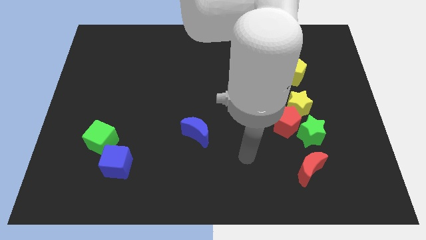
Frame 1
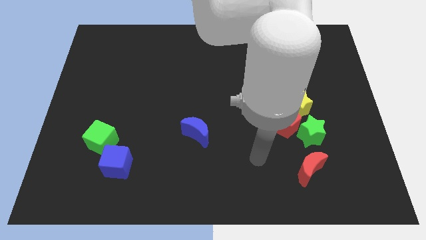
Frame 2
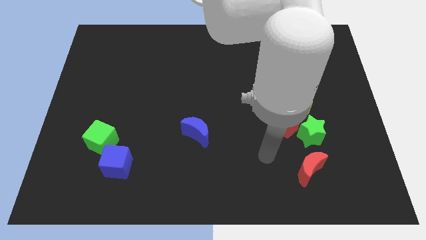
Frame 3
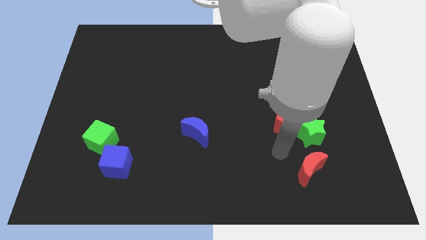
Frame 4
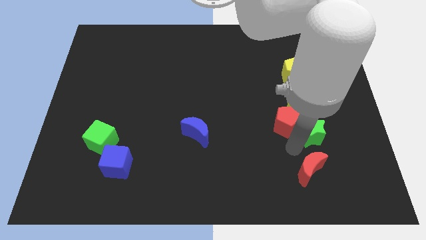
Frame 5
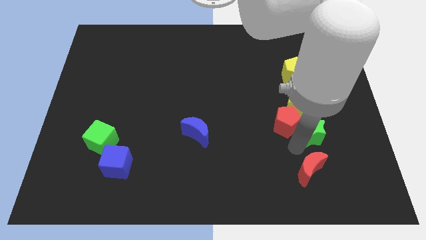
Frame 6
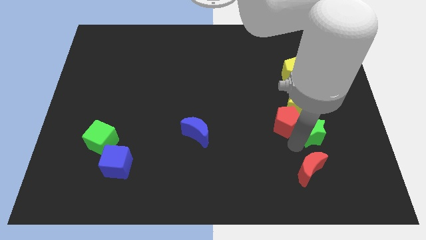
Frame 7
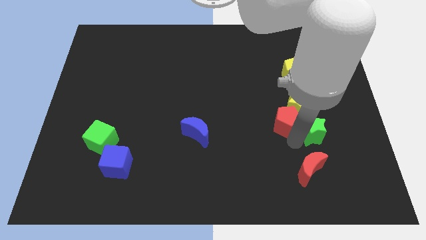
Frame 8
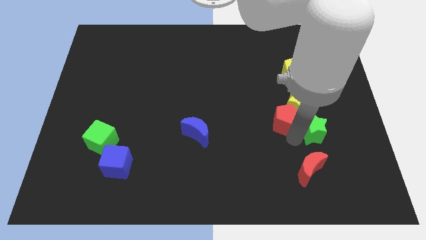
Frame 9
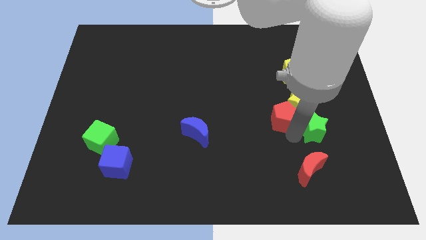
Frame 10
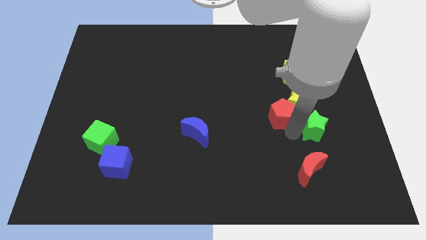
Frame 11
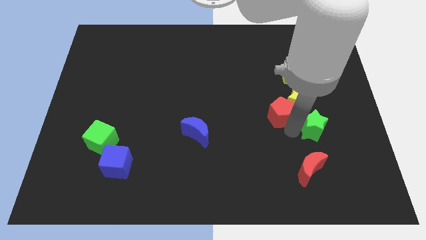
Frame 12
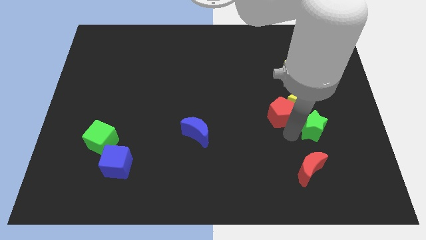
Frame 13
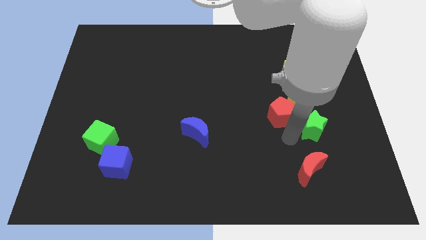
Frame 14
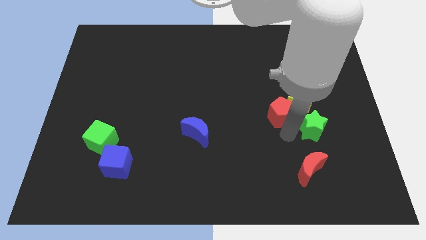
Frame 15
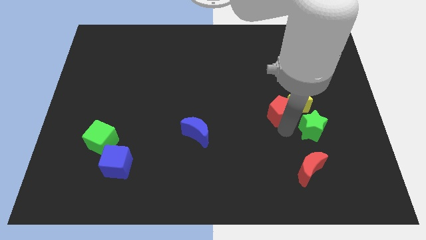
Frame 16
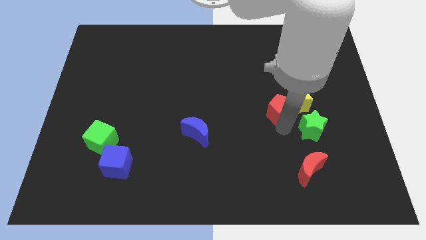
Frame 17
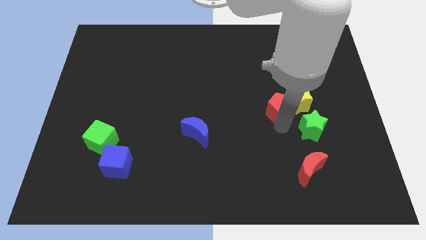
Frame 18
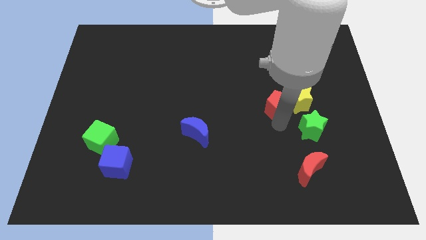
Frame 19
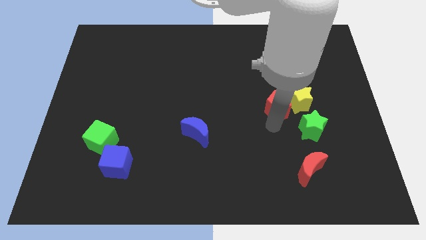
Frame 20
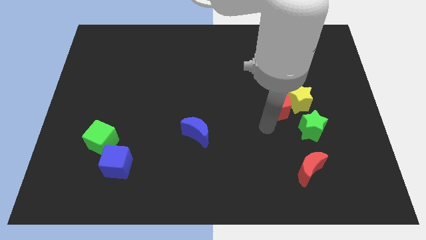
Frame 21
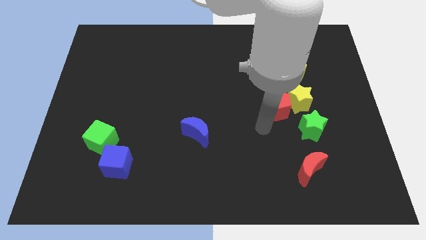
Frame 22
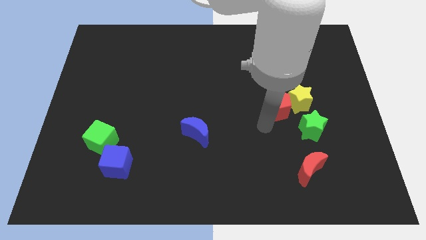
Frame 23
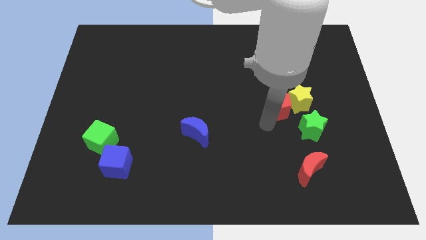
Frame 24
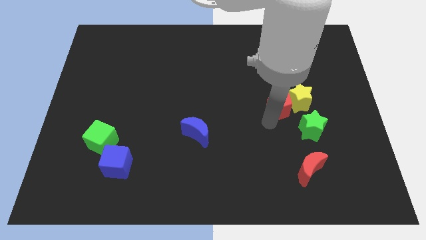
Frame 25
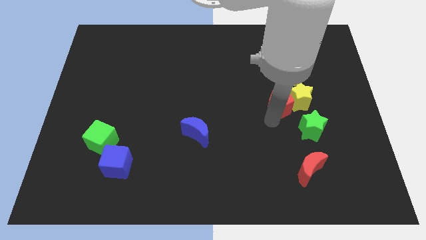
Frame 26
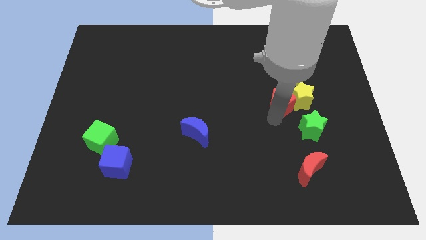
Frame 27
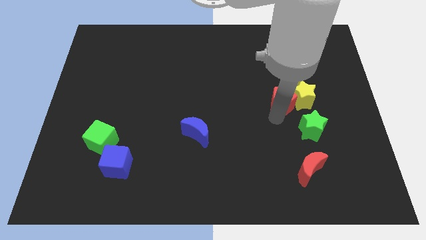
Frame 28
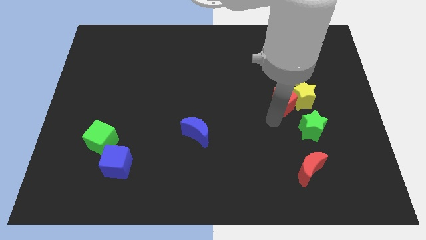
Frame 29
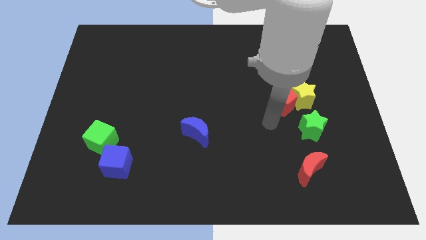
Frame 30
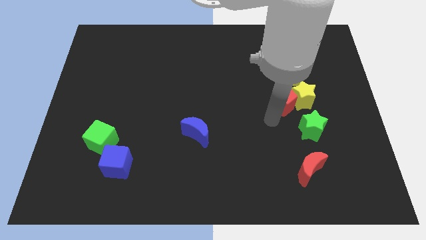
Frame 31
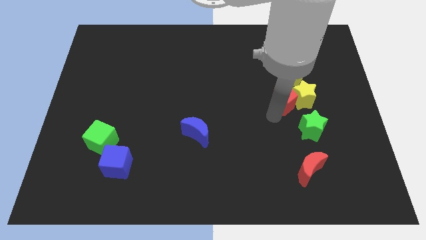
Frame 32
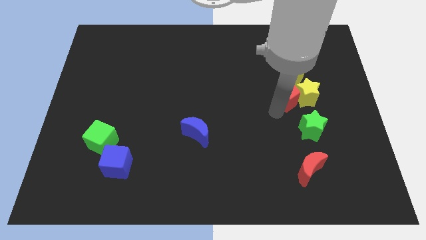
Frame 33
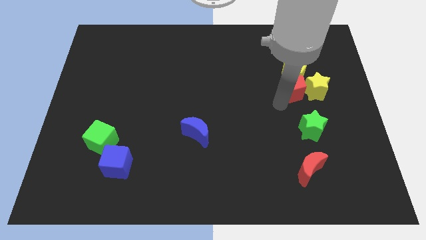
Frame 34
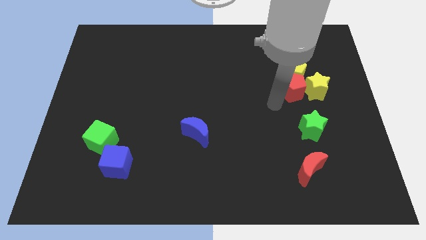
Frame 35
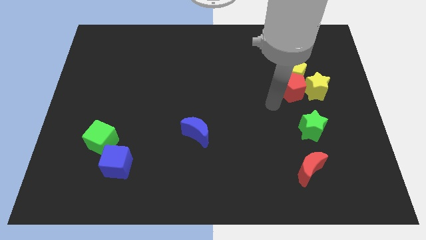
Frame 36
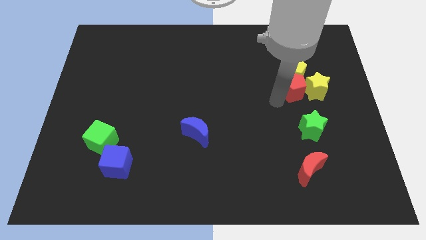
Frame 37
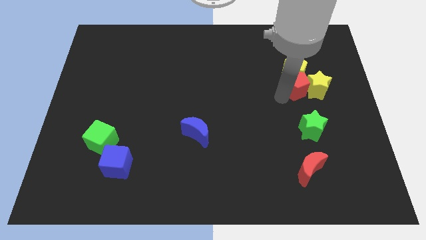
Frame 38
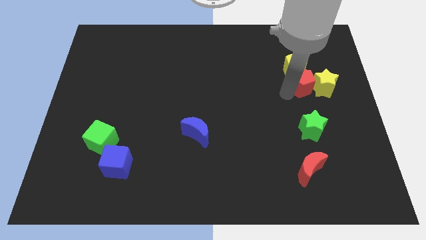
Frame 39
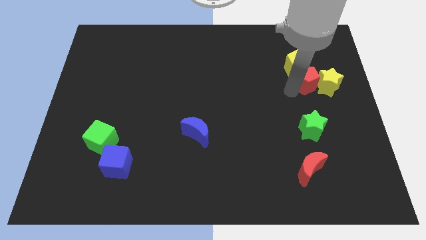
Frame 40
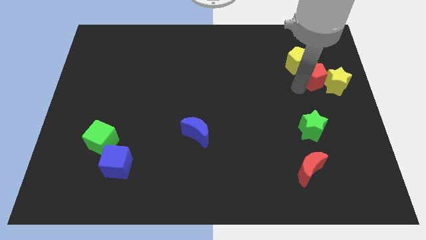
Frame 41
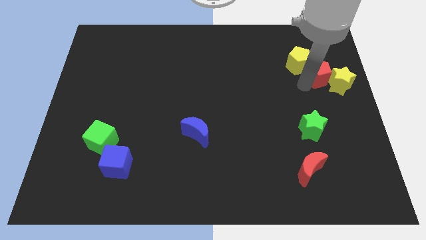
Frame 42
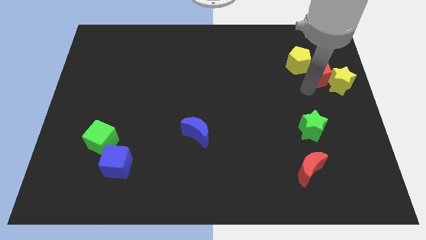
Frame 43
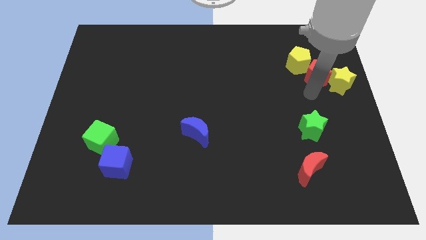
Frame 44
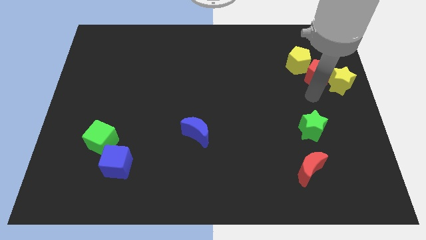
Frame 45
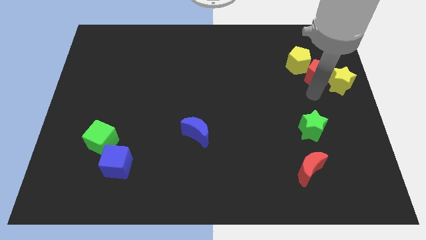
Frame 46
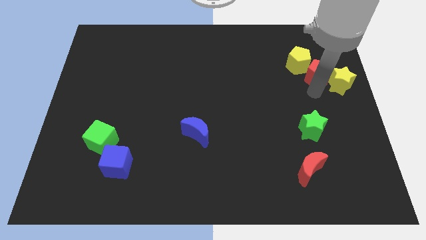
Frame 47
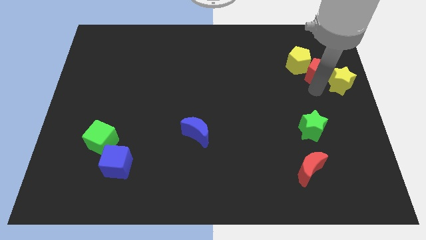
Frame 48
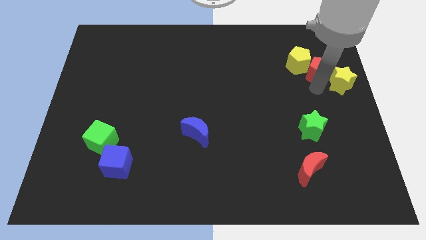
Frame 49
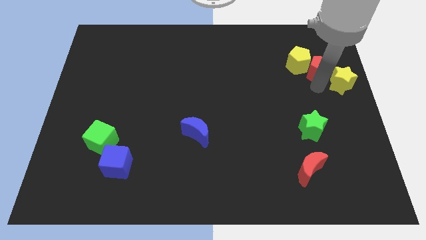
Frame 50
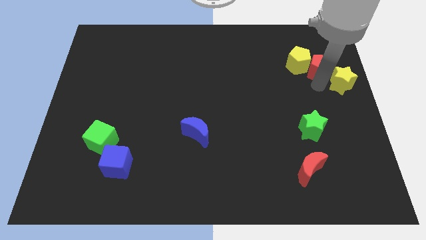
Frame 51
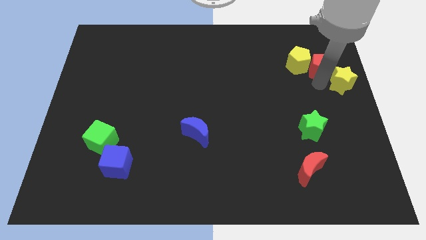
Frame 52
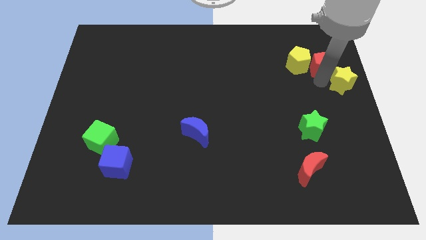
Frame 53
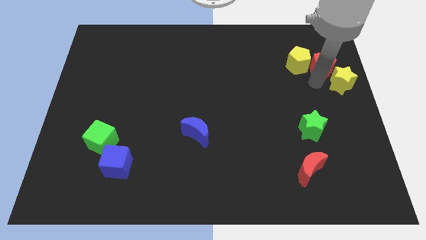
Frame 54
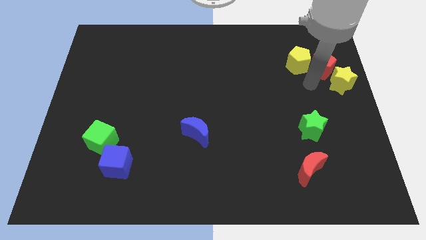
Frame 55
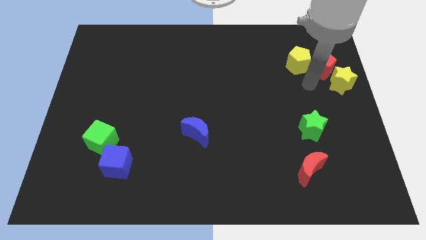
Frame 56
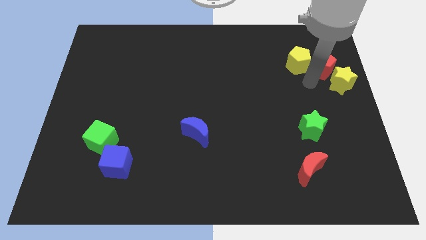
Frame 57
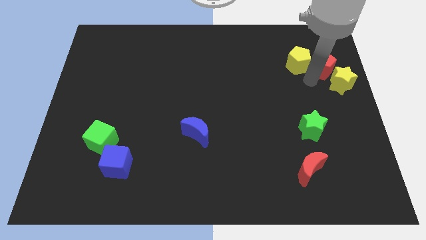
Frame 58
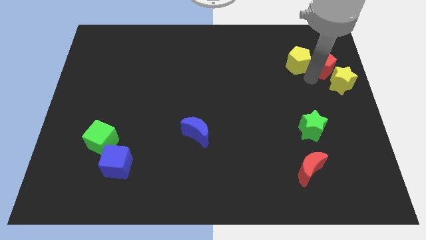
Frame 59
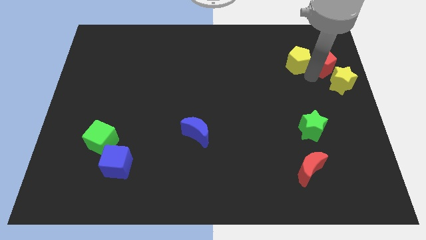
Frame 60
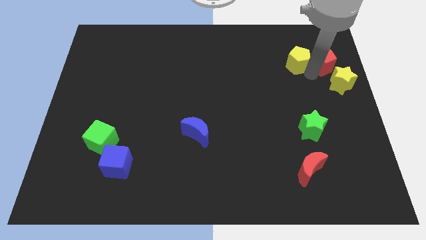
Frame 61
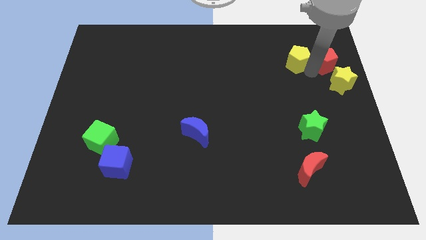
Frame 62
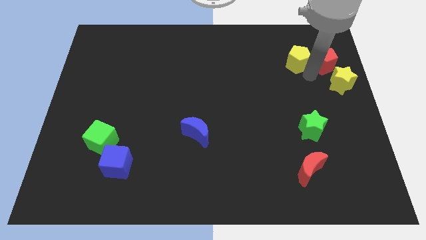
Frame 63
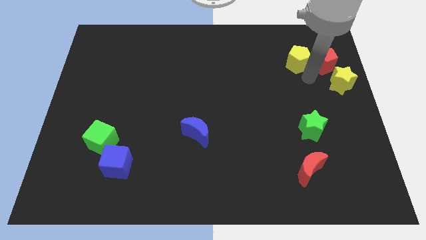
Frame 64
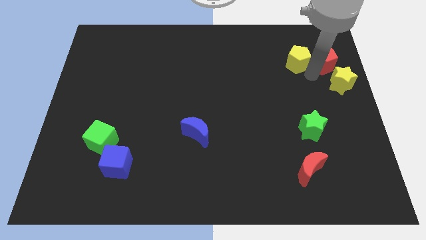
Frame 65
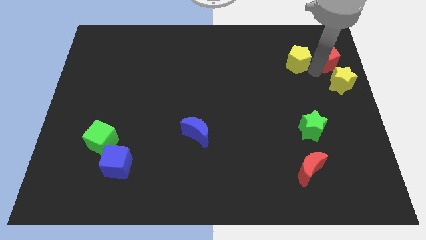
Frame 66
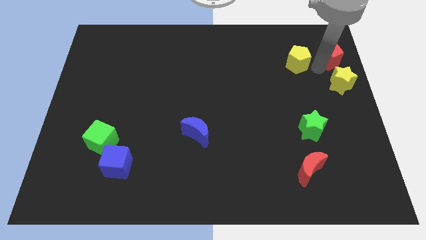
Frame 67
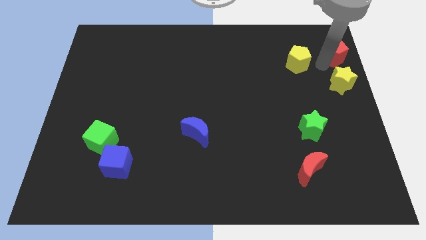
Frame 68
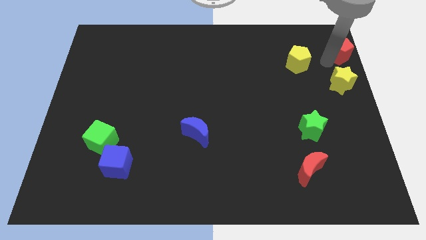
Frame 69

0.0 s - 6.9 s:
push the red pentagon to the upper right corner
